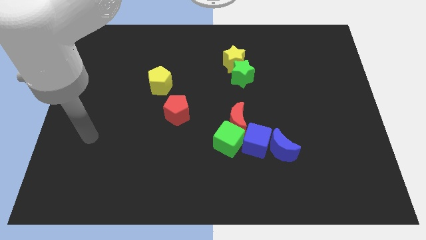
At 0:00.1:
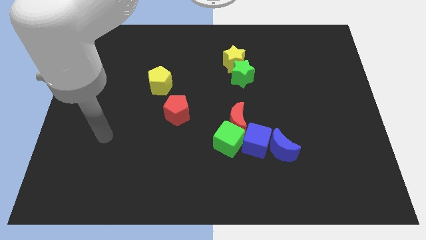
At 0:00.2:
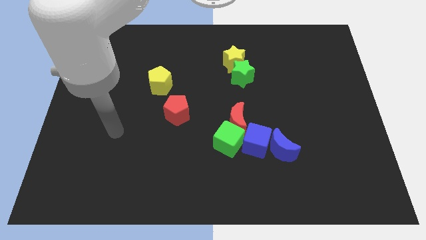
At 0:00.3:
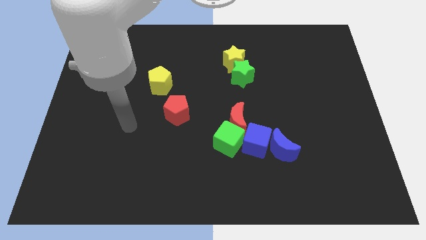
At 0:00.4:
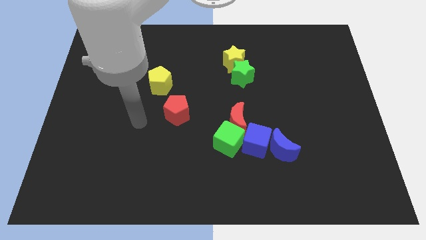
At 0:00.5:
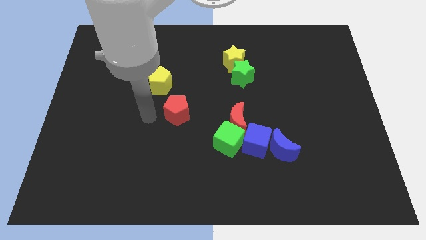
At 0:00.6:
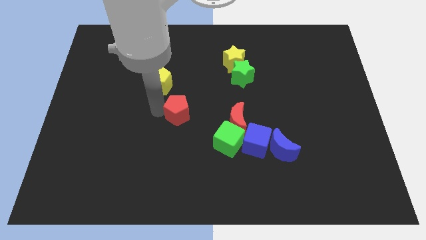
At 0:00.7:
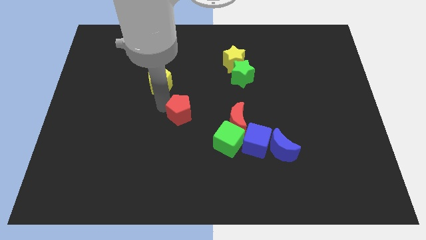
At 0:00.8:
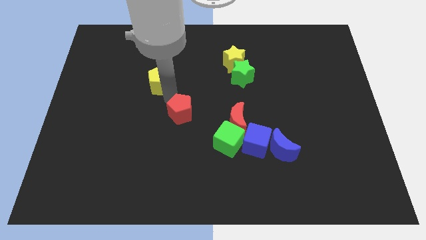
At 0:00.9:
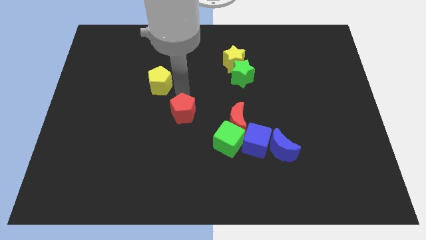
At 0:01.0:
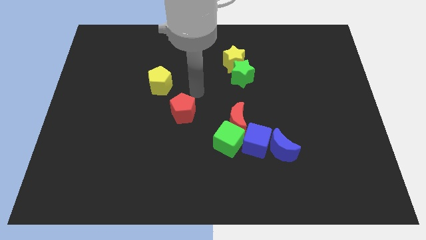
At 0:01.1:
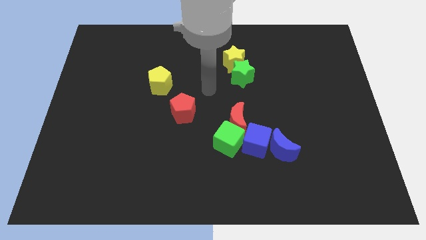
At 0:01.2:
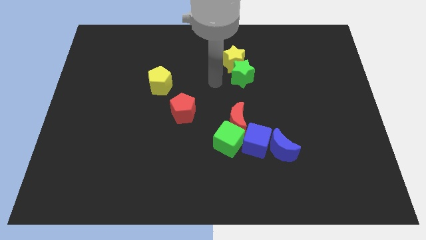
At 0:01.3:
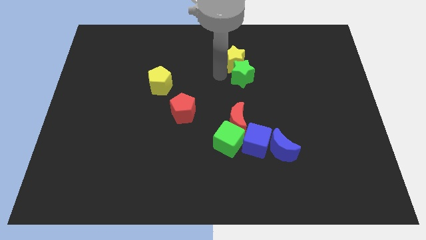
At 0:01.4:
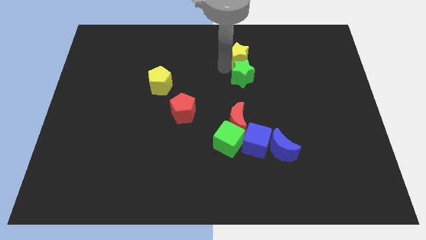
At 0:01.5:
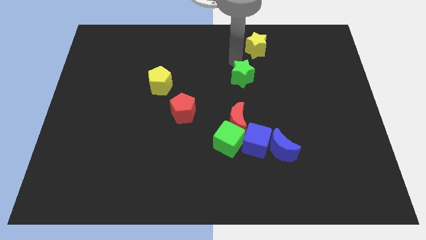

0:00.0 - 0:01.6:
move the green star away from the yellow star

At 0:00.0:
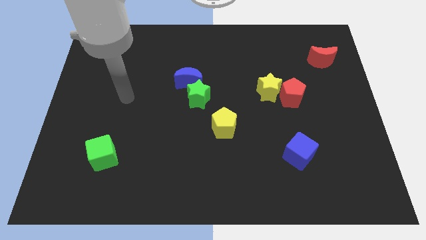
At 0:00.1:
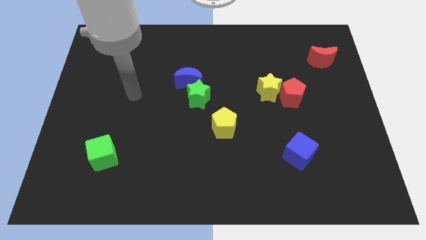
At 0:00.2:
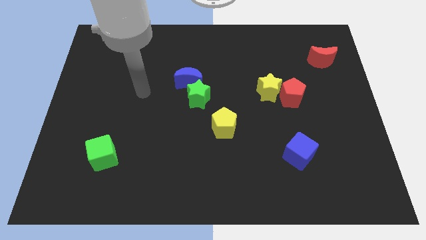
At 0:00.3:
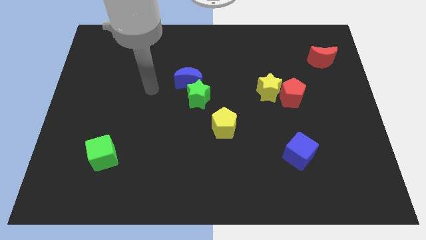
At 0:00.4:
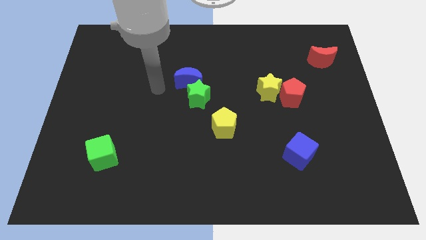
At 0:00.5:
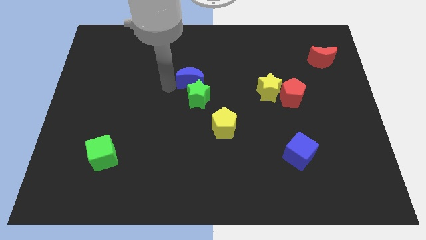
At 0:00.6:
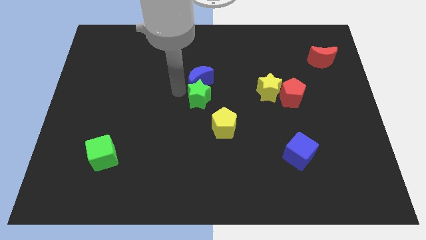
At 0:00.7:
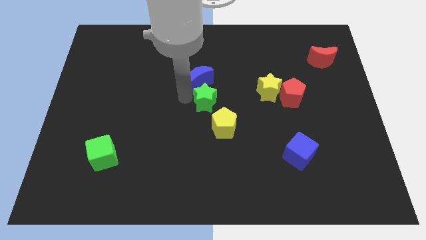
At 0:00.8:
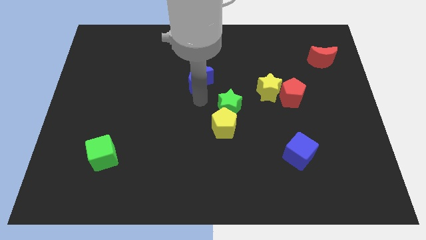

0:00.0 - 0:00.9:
separate the blue moon from the green star

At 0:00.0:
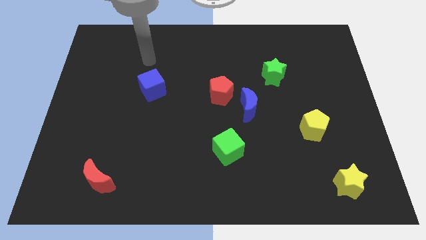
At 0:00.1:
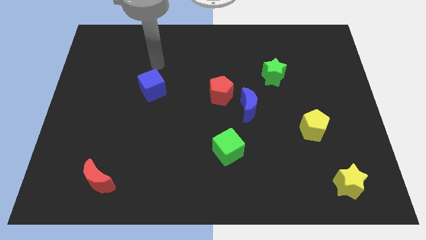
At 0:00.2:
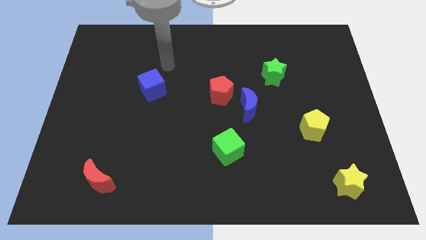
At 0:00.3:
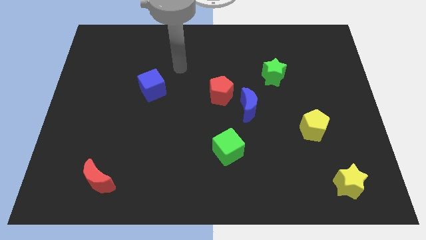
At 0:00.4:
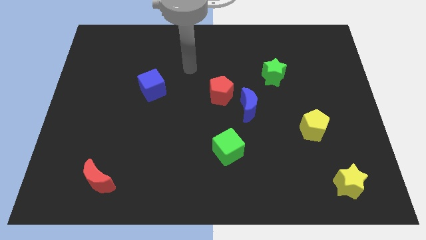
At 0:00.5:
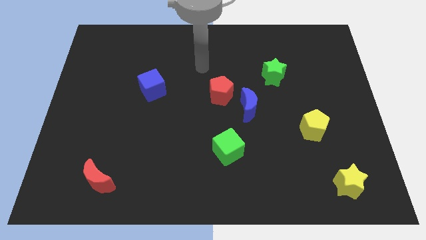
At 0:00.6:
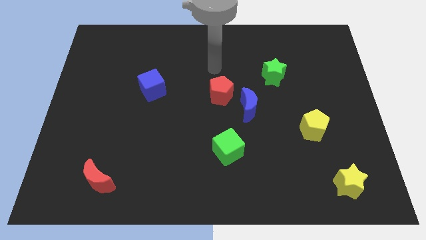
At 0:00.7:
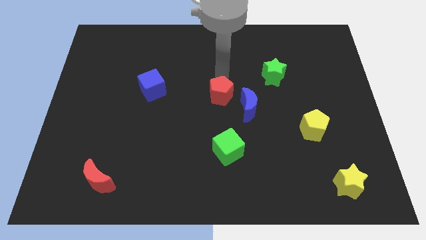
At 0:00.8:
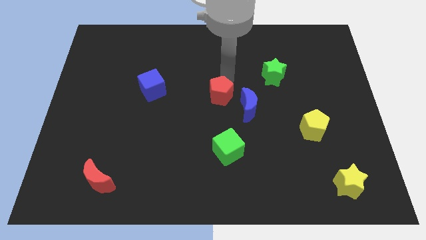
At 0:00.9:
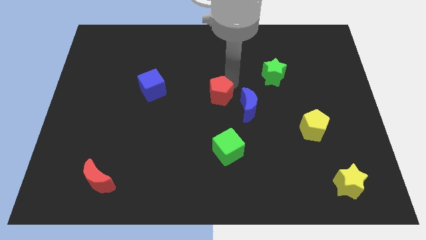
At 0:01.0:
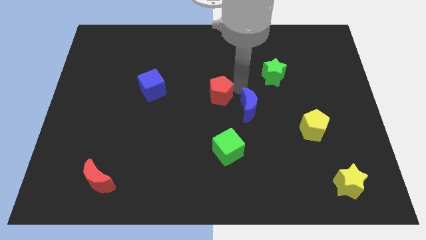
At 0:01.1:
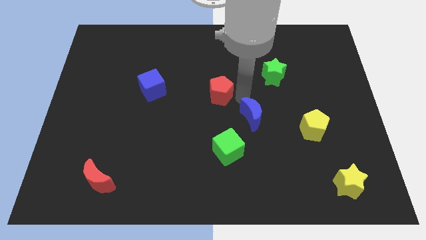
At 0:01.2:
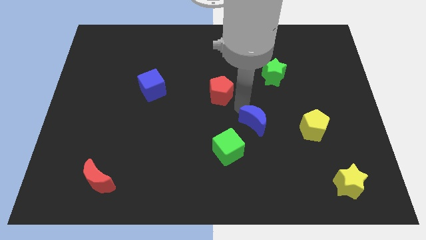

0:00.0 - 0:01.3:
pull the red pentagon apart from the blue moon

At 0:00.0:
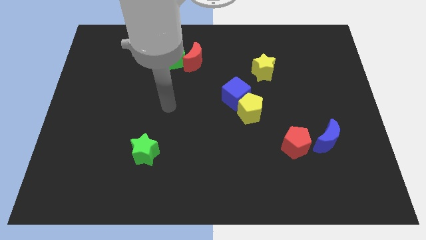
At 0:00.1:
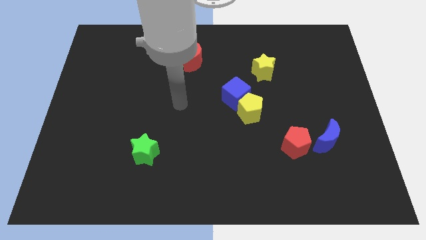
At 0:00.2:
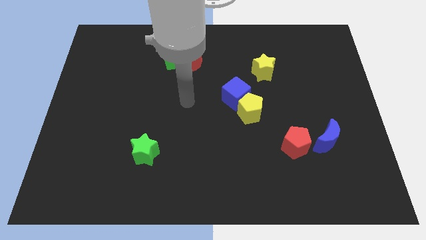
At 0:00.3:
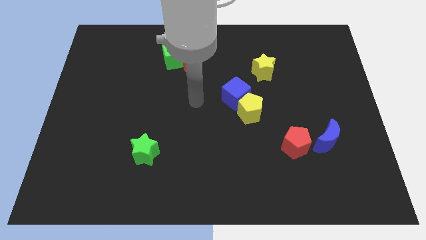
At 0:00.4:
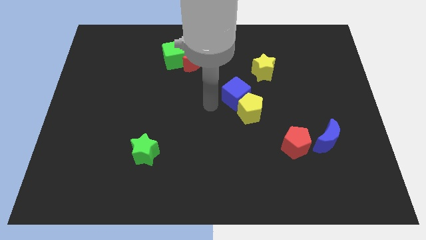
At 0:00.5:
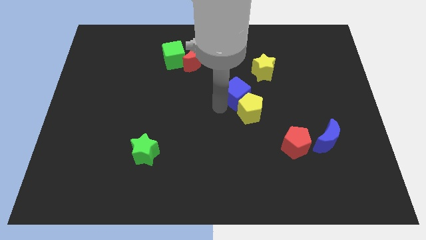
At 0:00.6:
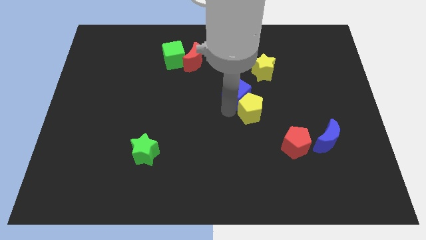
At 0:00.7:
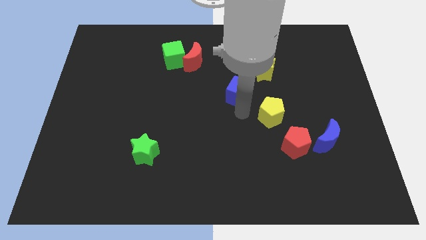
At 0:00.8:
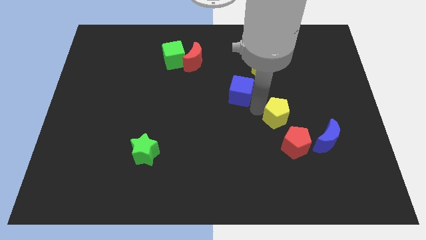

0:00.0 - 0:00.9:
pull the blue cube apart from the yellow pentagon

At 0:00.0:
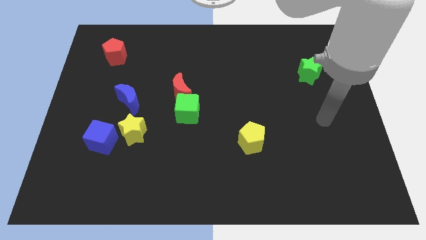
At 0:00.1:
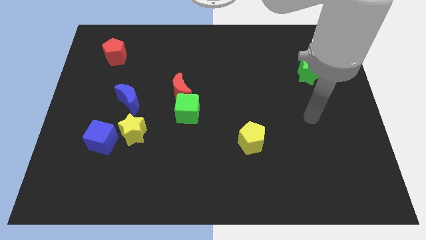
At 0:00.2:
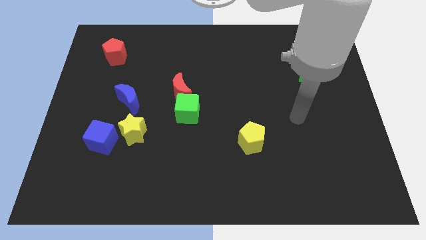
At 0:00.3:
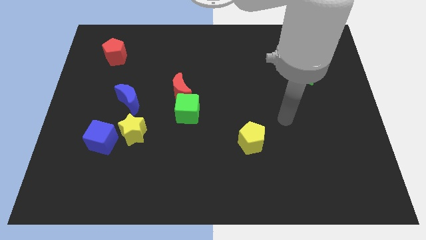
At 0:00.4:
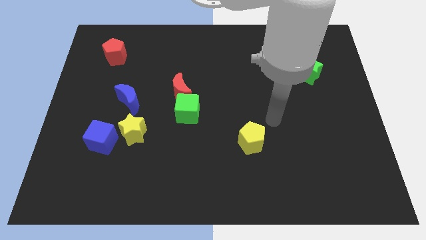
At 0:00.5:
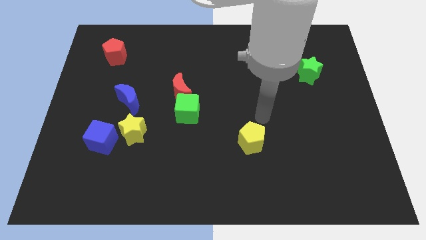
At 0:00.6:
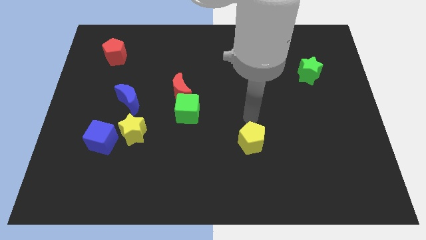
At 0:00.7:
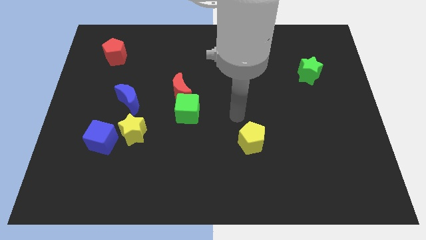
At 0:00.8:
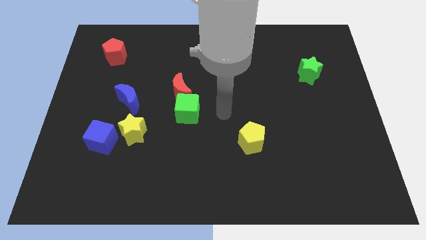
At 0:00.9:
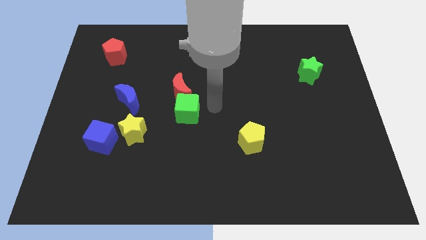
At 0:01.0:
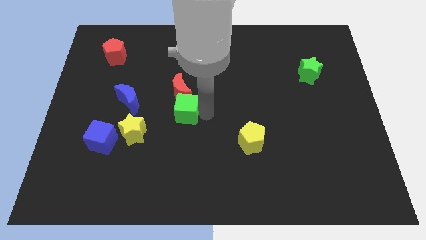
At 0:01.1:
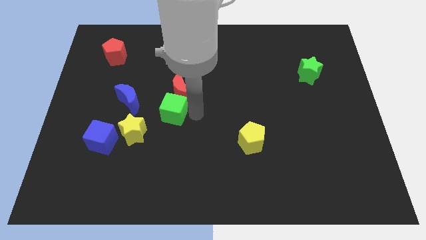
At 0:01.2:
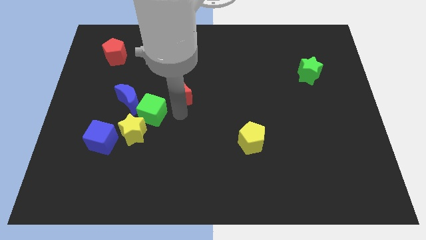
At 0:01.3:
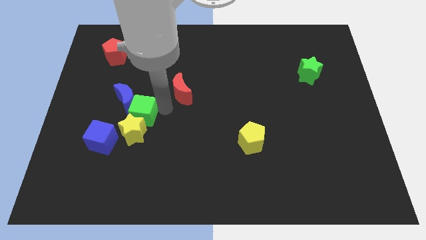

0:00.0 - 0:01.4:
pull the red moon apart from the green cube

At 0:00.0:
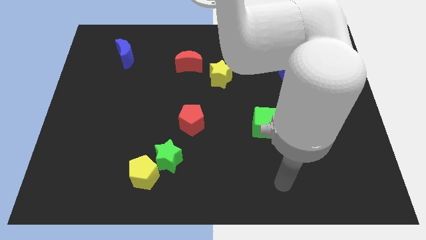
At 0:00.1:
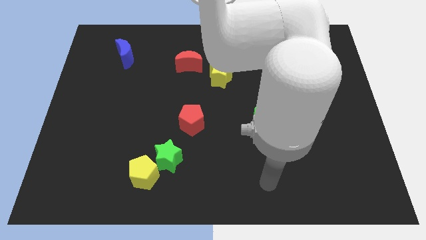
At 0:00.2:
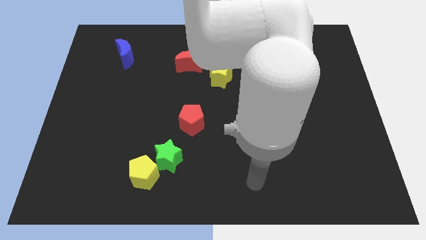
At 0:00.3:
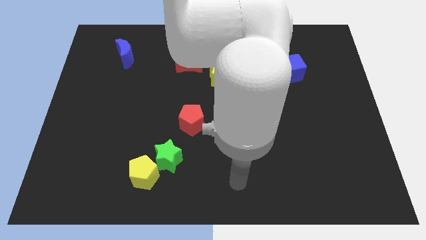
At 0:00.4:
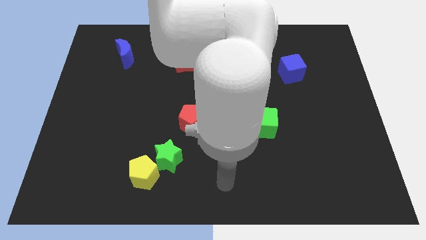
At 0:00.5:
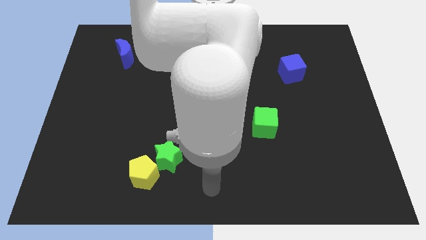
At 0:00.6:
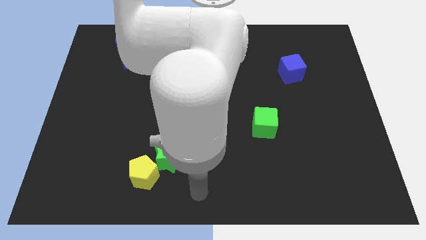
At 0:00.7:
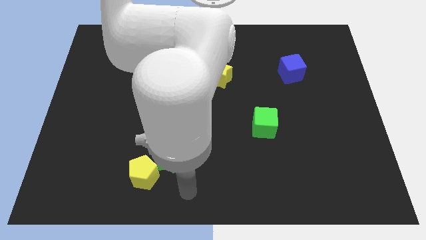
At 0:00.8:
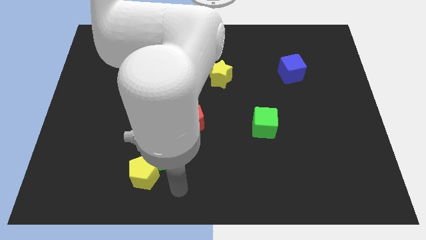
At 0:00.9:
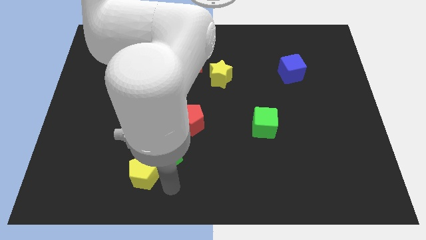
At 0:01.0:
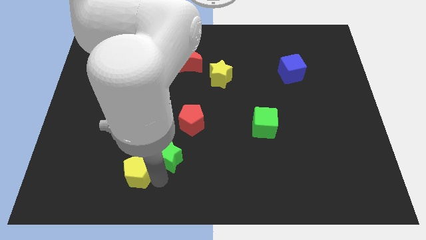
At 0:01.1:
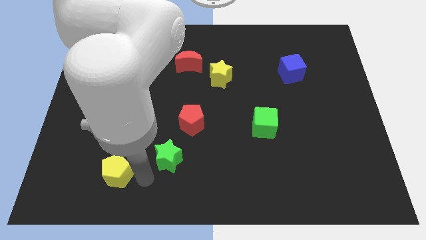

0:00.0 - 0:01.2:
pull the green star apart from the yellow pentagon

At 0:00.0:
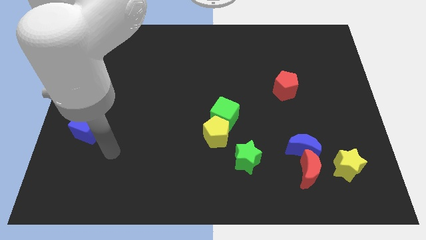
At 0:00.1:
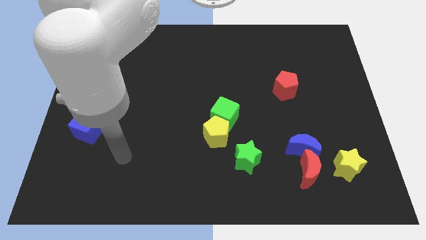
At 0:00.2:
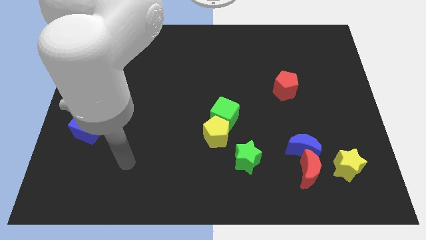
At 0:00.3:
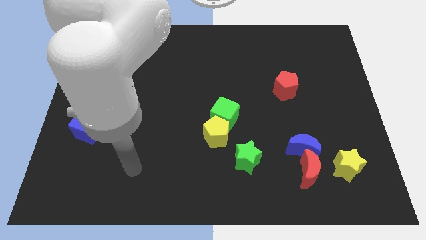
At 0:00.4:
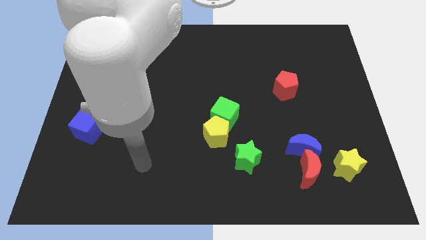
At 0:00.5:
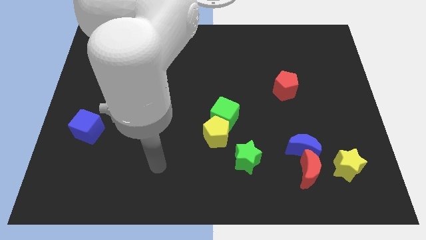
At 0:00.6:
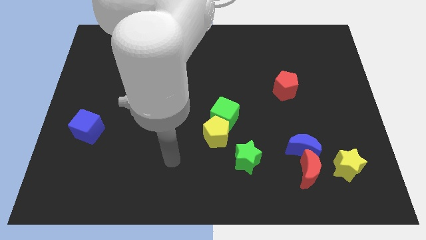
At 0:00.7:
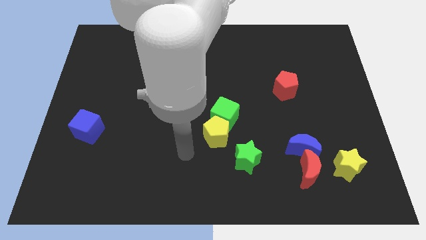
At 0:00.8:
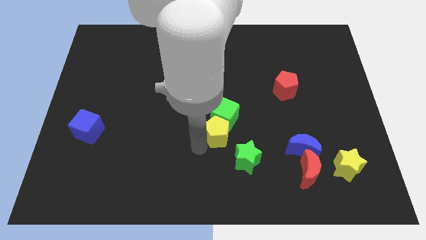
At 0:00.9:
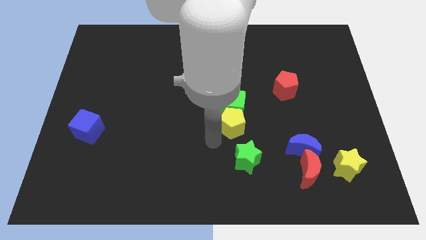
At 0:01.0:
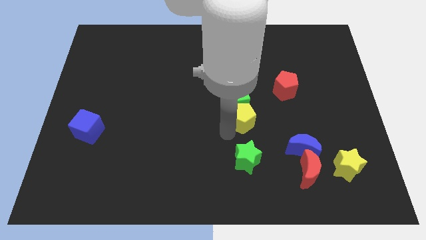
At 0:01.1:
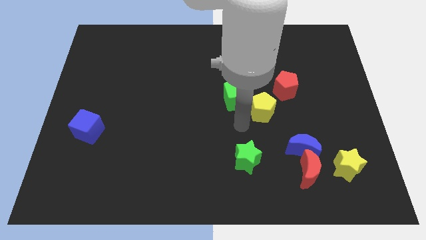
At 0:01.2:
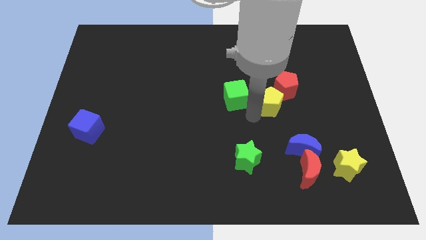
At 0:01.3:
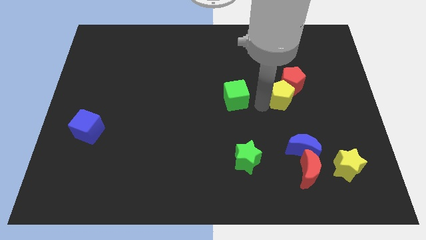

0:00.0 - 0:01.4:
move the green cube away from the yellow pentagon

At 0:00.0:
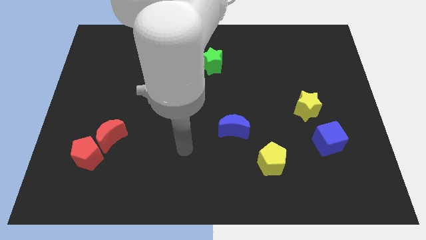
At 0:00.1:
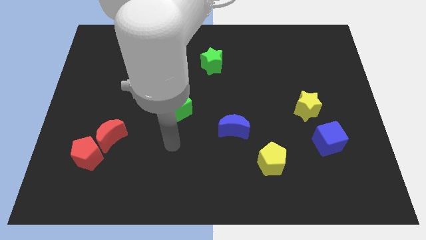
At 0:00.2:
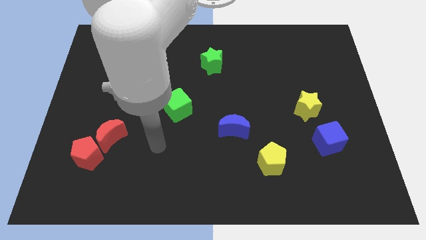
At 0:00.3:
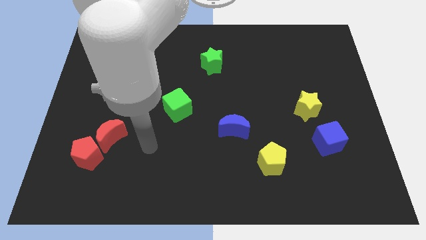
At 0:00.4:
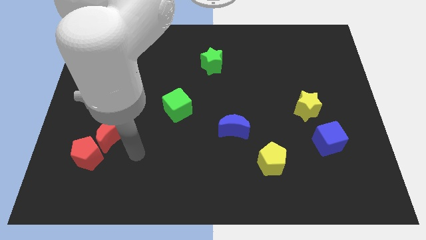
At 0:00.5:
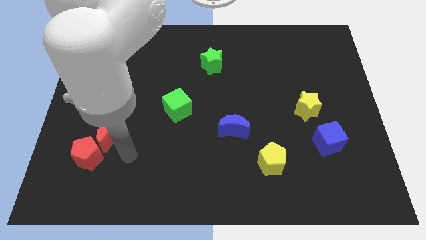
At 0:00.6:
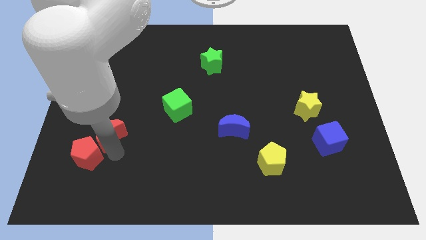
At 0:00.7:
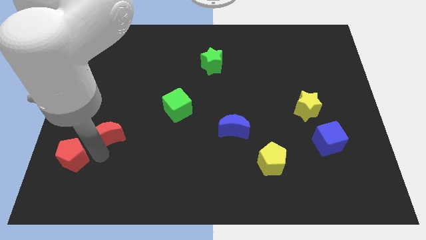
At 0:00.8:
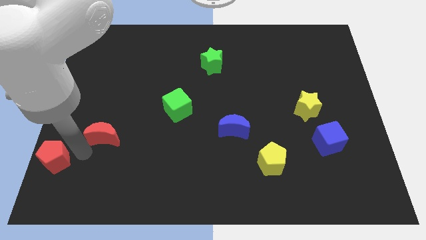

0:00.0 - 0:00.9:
separate the red moon from the red pentagon
